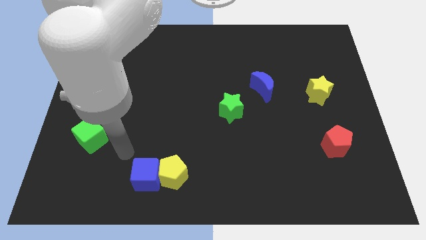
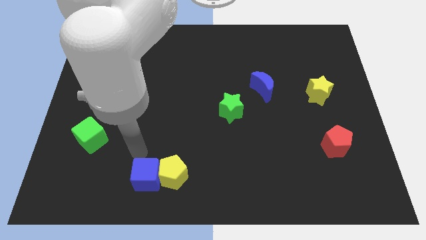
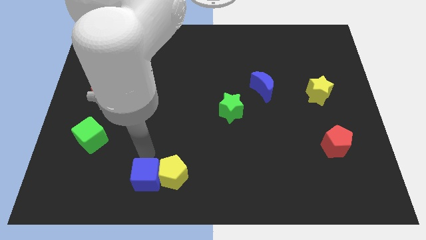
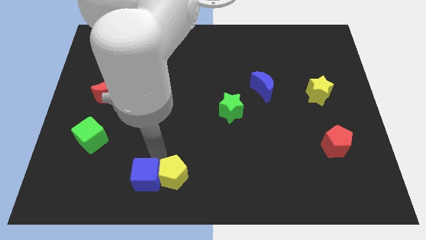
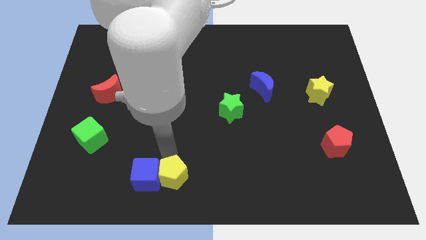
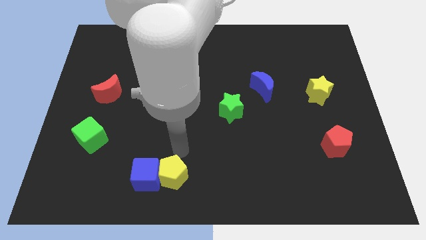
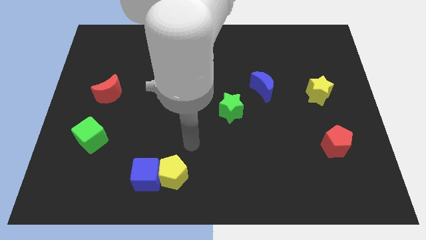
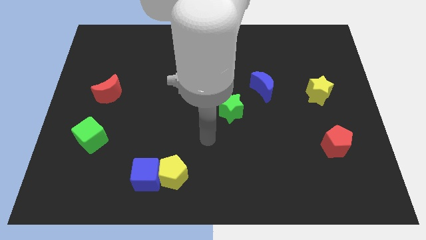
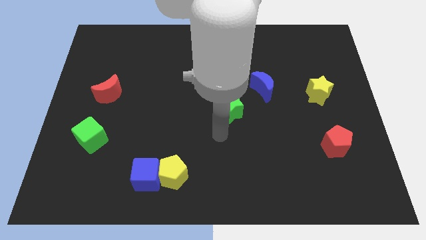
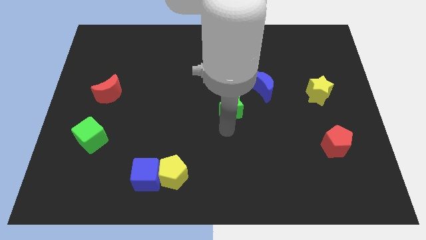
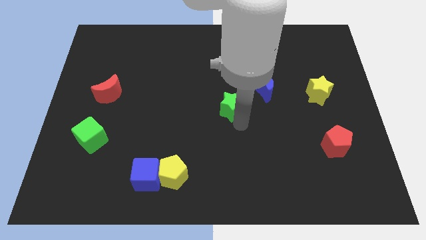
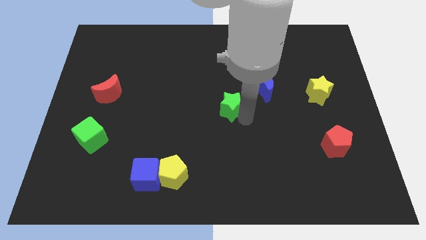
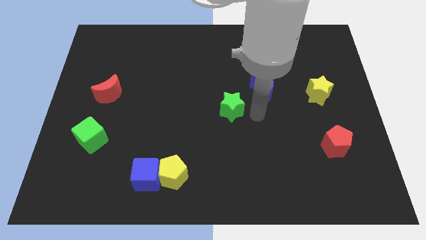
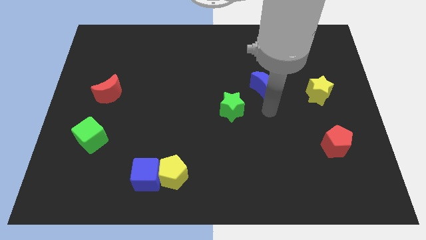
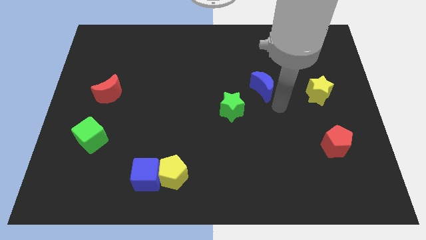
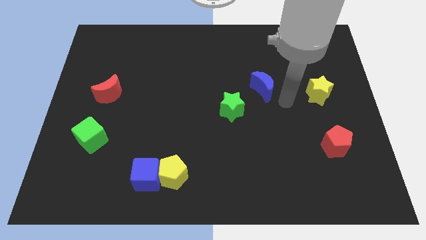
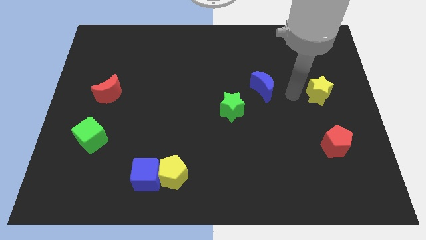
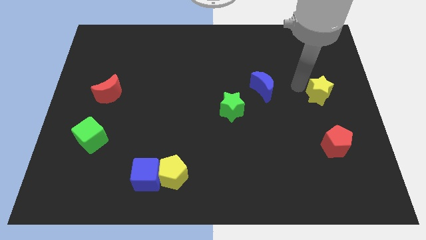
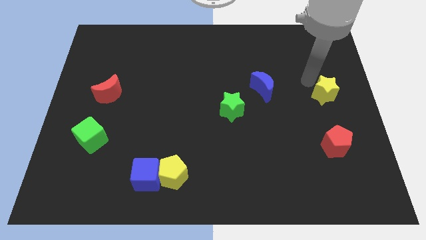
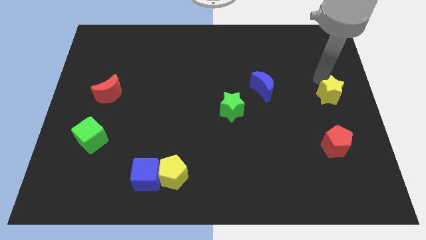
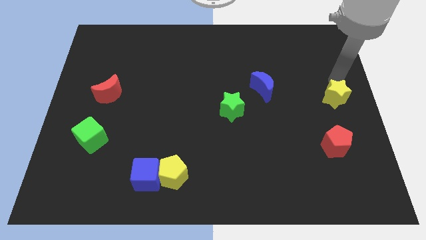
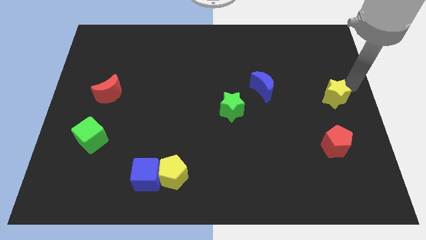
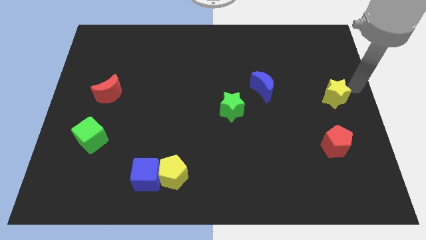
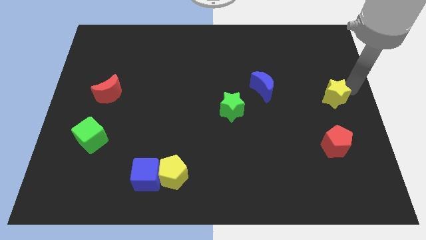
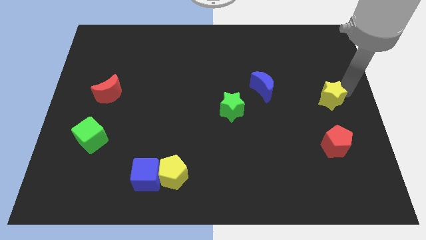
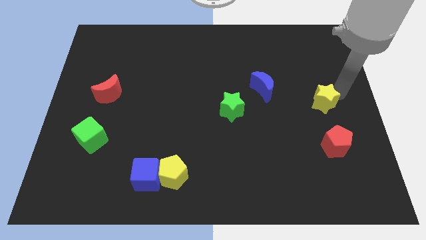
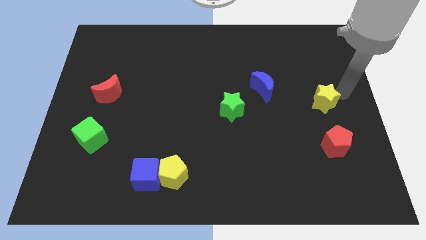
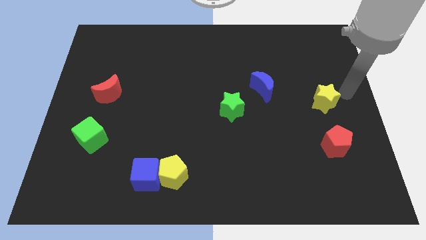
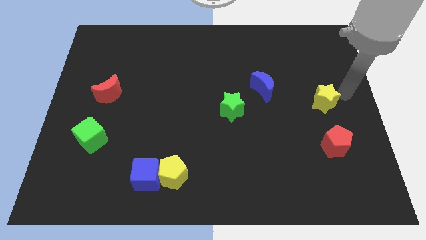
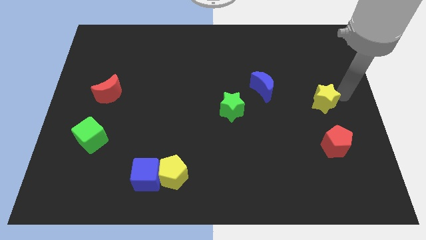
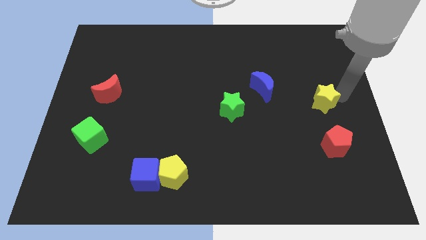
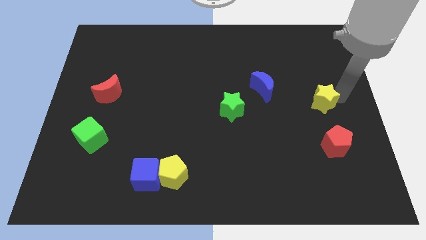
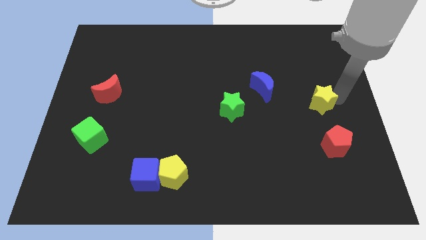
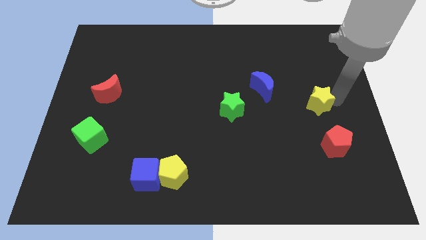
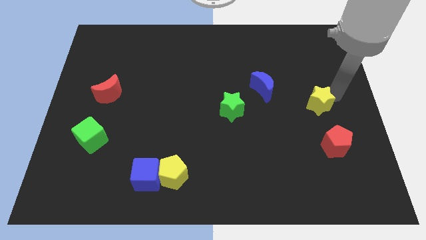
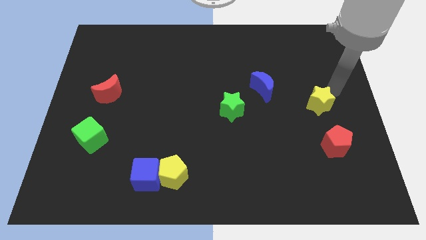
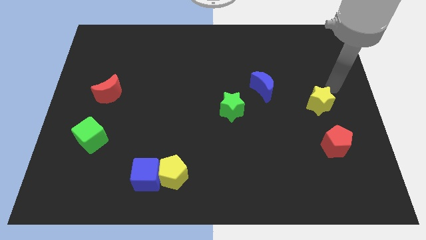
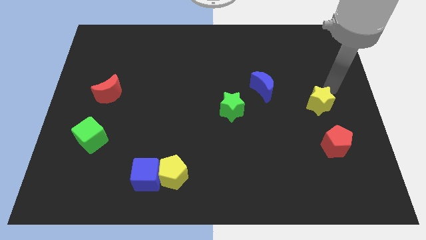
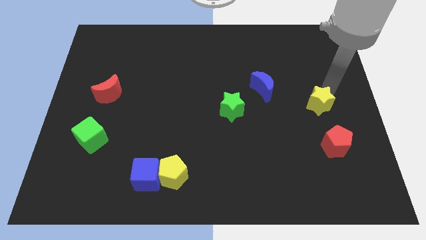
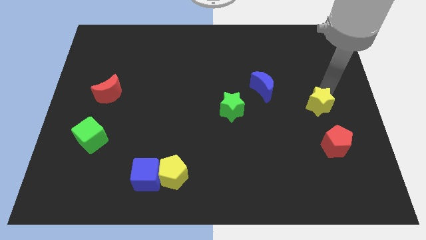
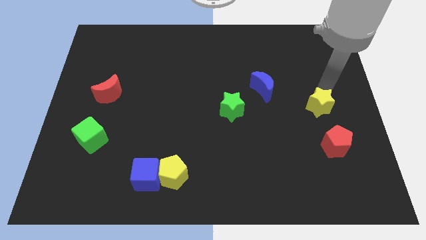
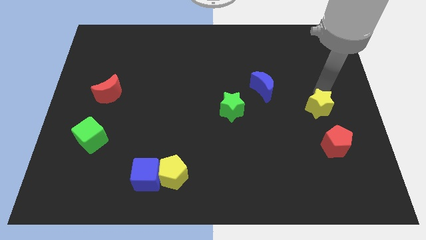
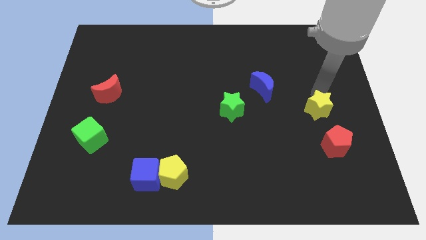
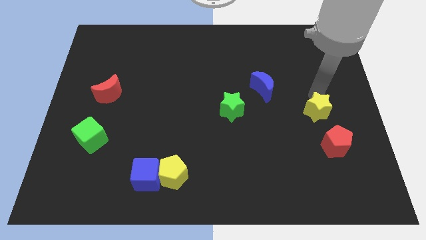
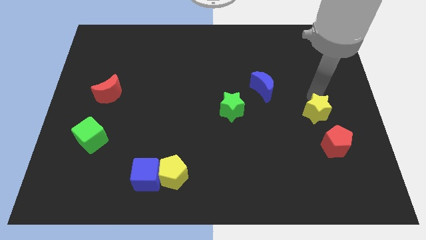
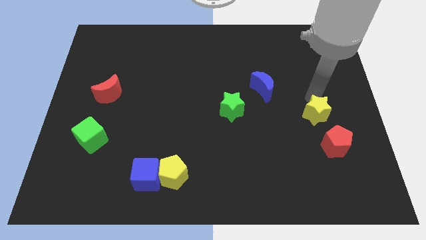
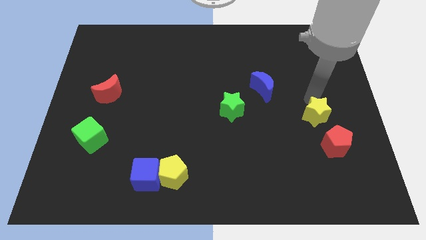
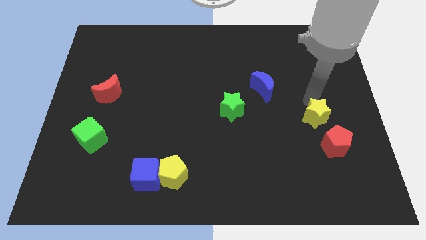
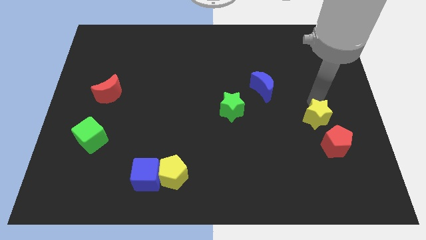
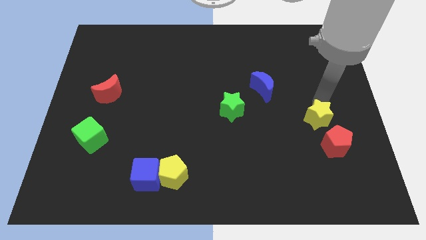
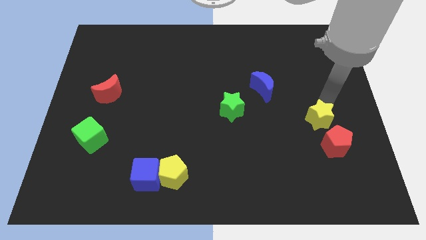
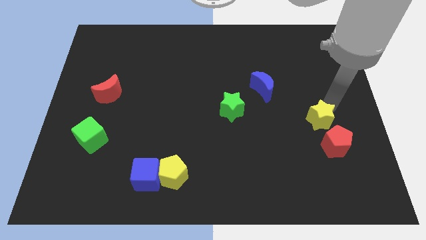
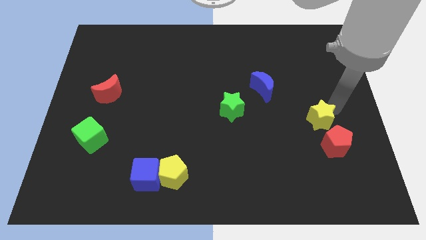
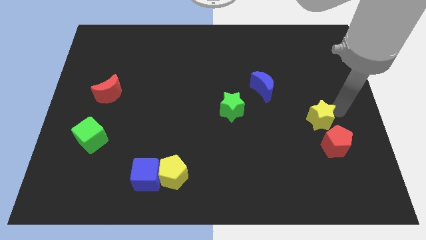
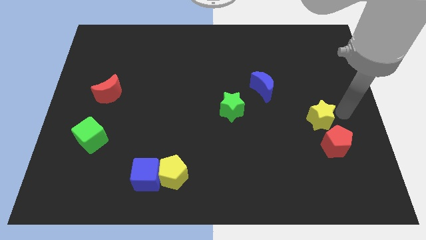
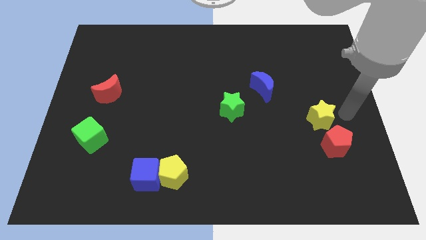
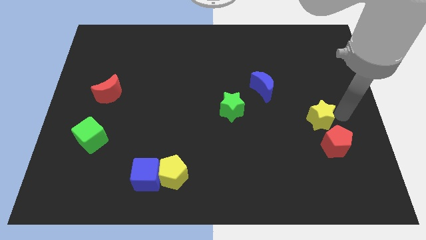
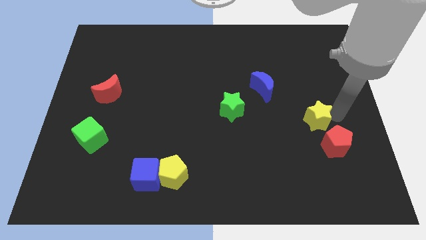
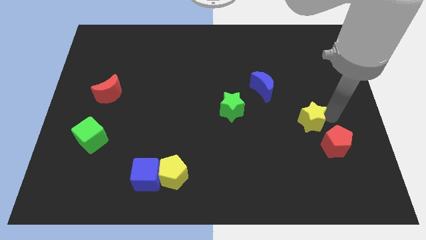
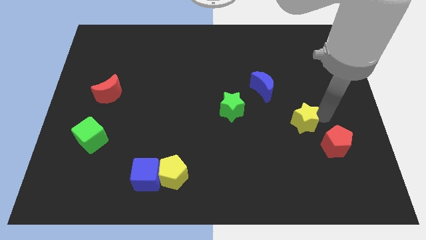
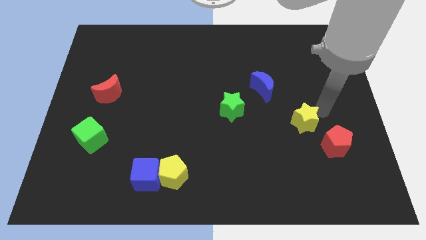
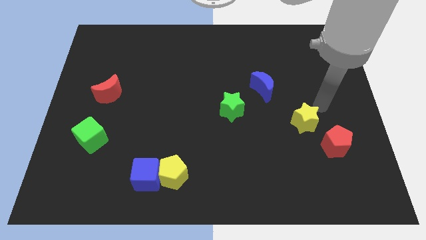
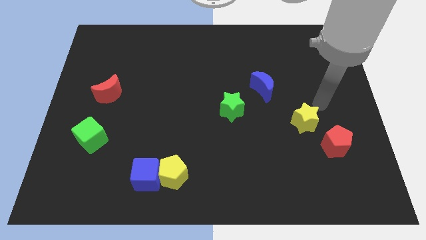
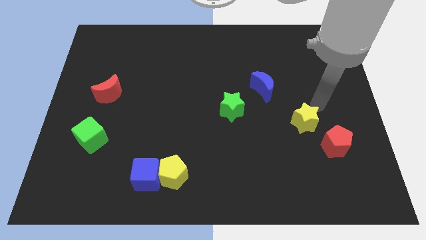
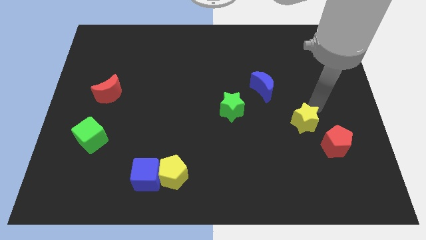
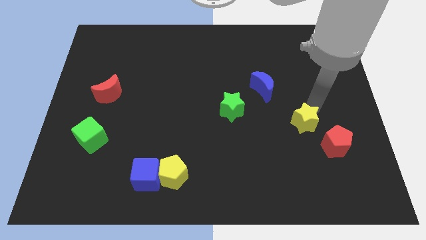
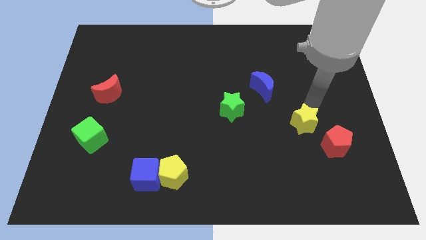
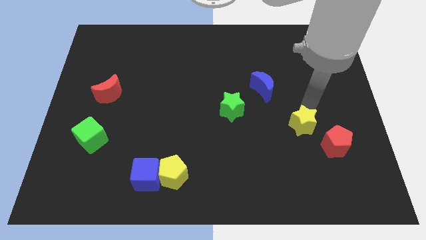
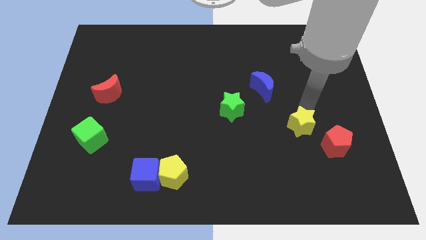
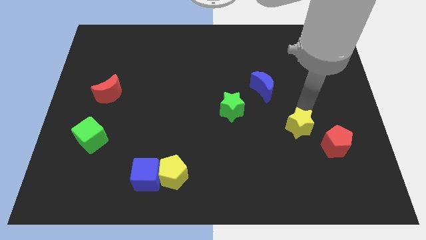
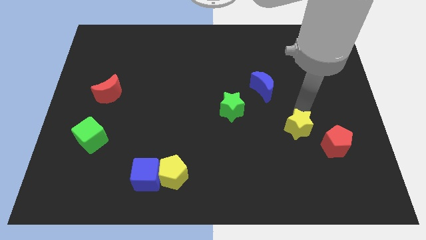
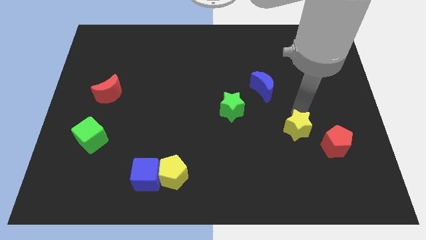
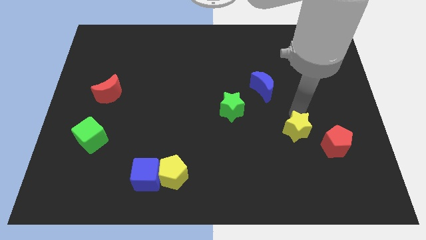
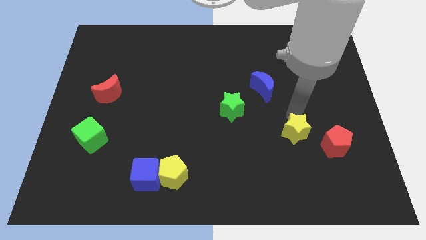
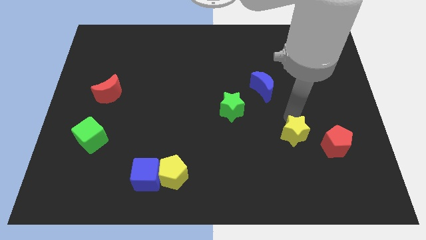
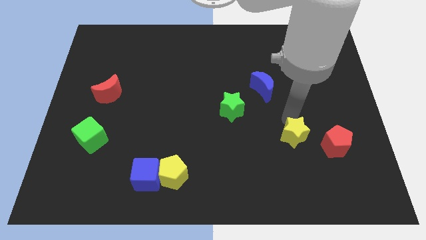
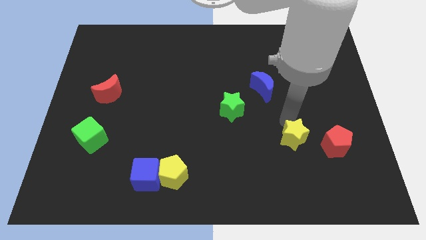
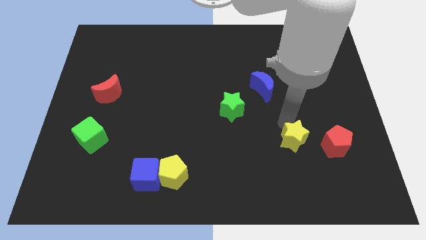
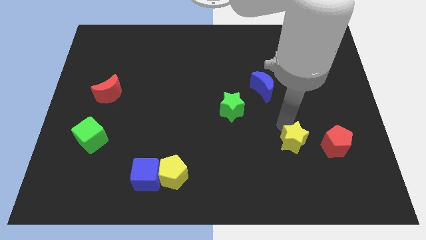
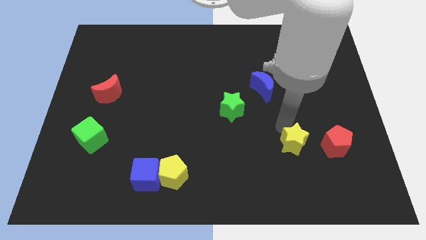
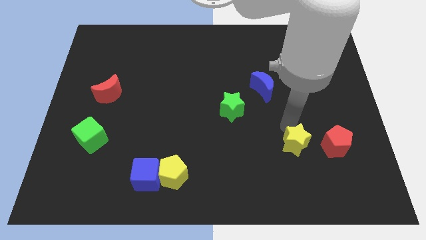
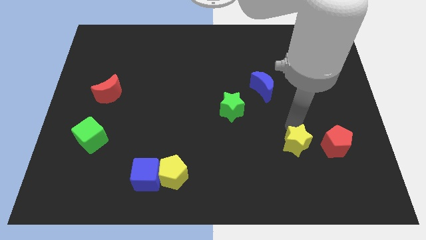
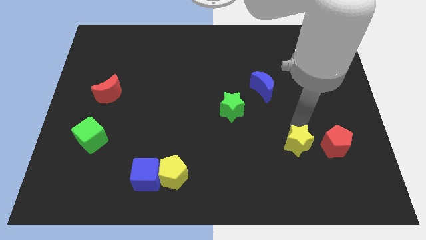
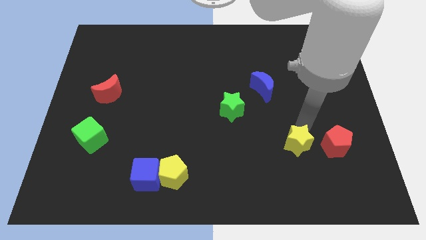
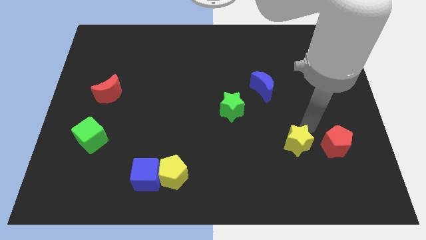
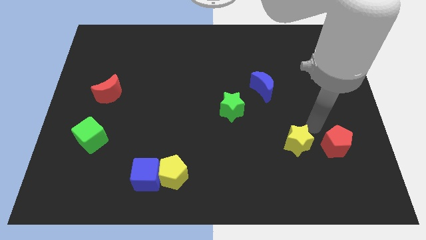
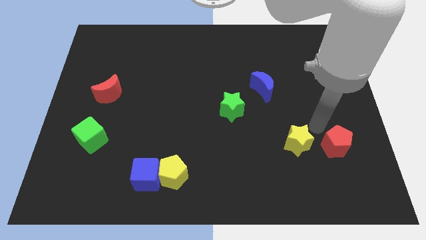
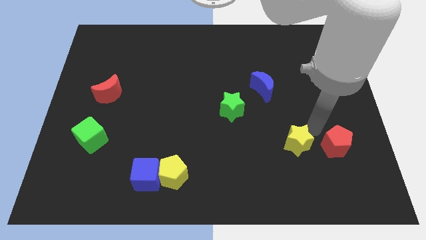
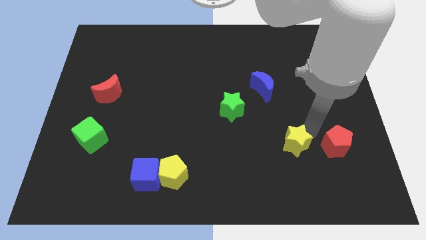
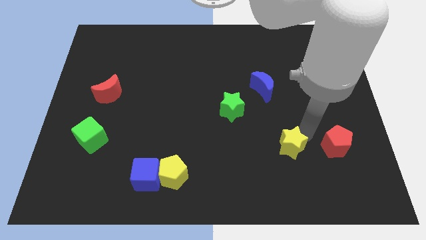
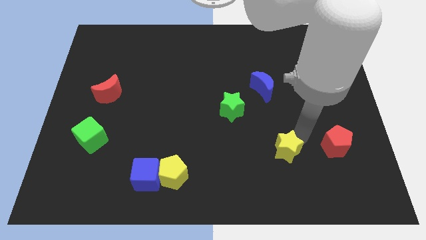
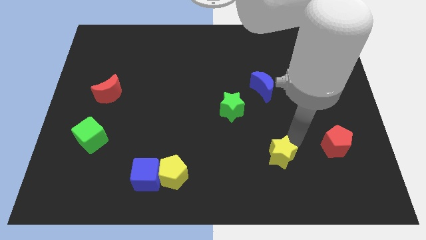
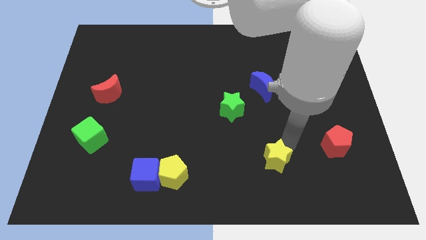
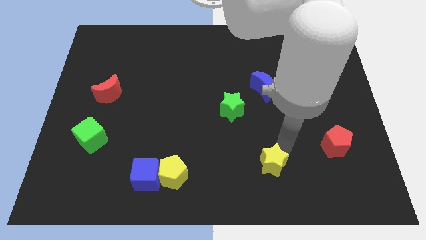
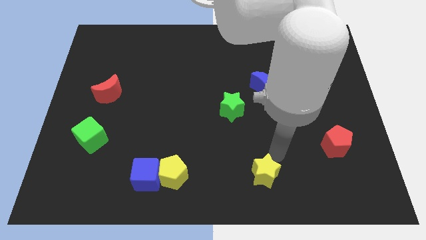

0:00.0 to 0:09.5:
put the yellow star to the bottom side
